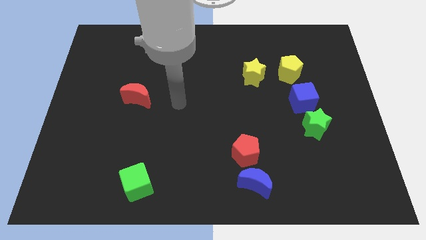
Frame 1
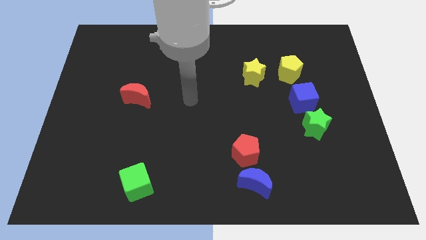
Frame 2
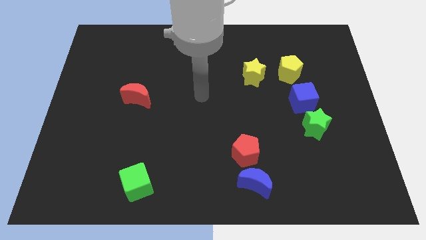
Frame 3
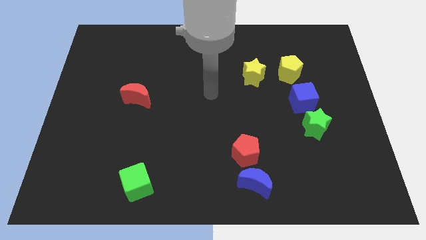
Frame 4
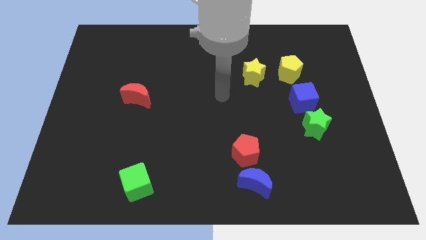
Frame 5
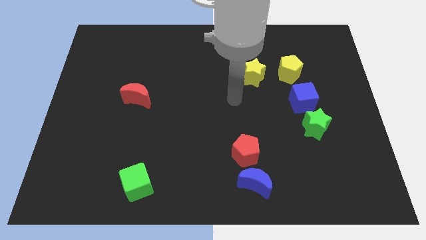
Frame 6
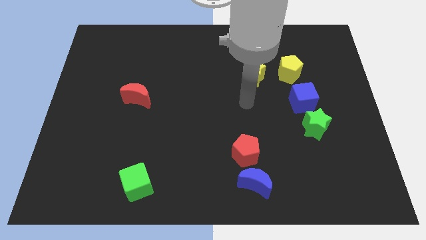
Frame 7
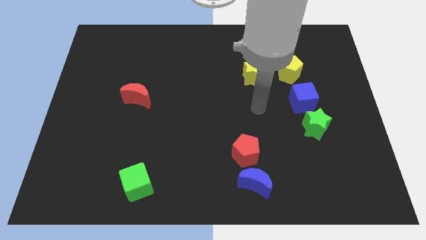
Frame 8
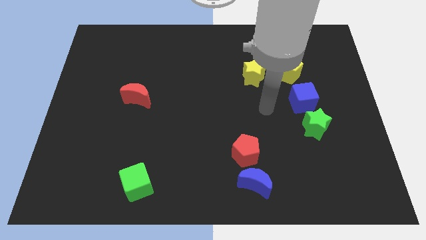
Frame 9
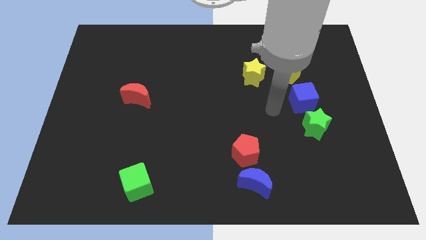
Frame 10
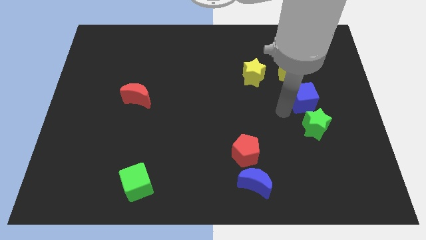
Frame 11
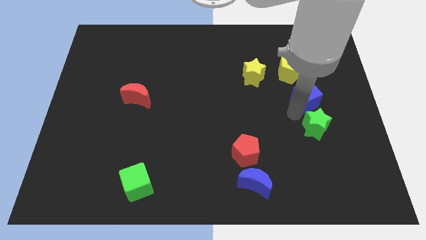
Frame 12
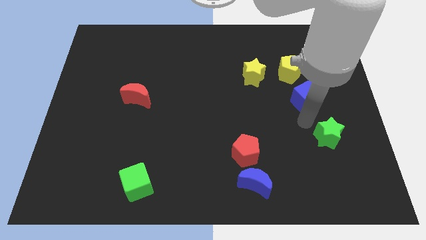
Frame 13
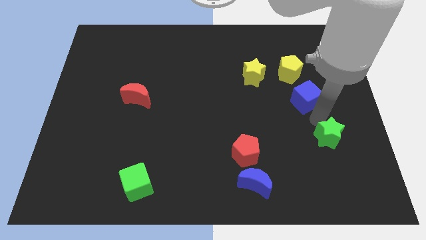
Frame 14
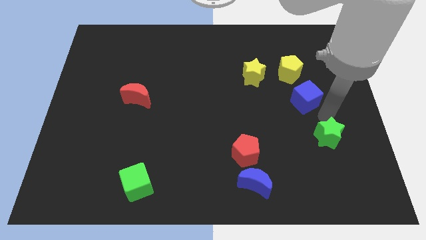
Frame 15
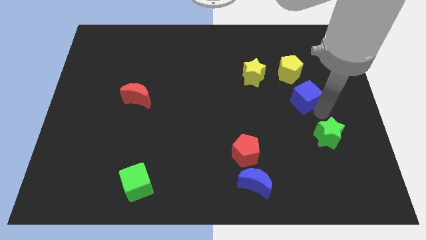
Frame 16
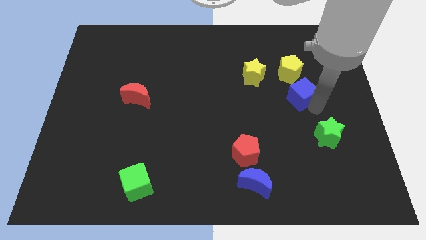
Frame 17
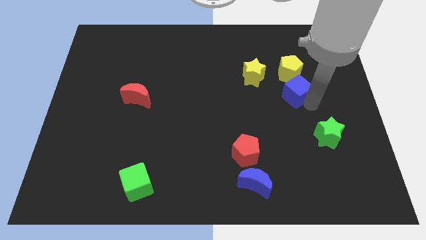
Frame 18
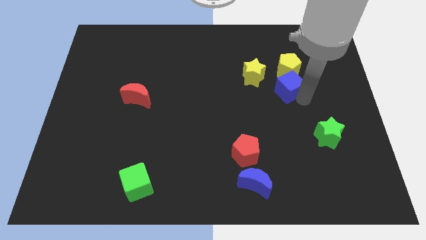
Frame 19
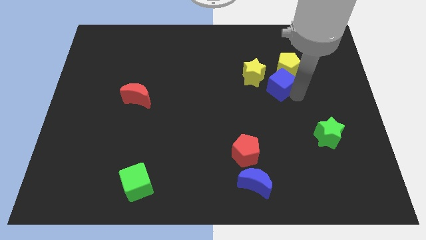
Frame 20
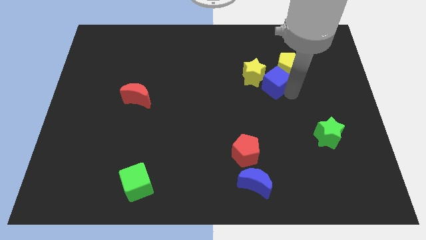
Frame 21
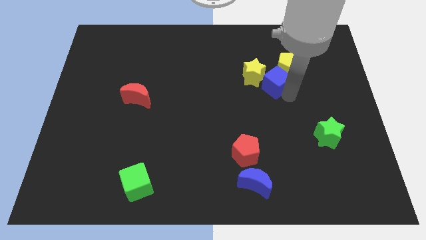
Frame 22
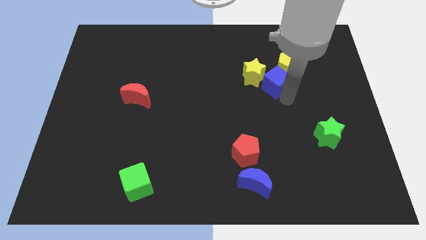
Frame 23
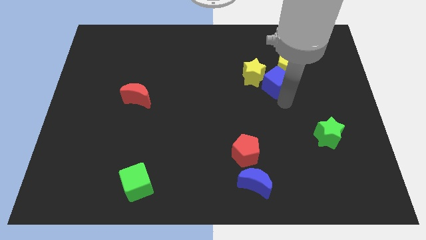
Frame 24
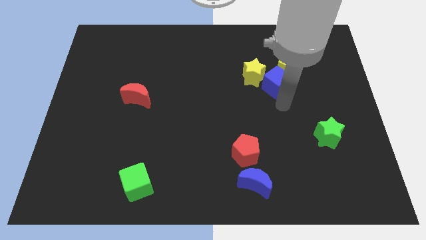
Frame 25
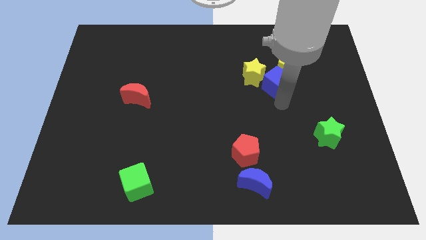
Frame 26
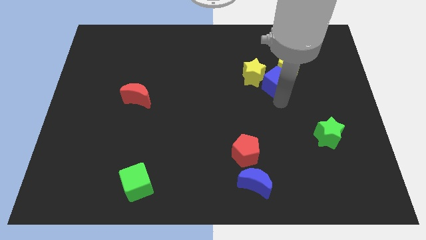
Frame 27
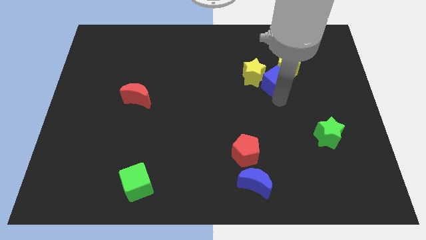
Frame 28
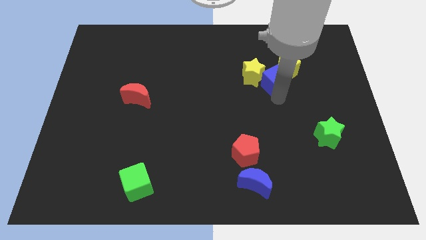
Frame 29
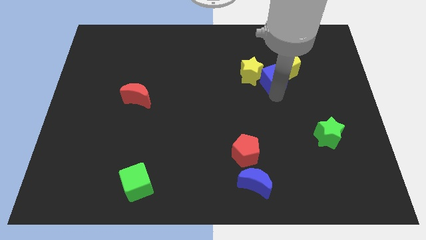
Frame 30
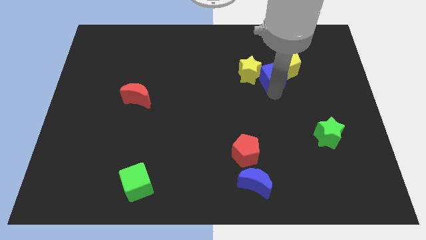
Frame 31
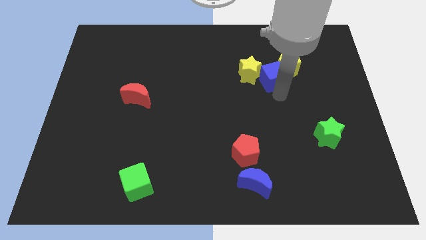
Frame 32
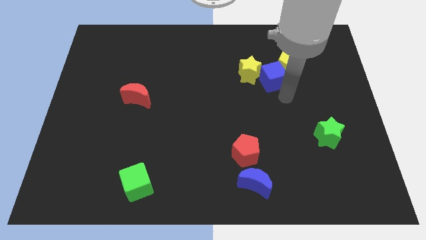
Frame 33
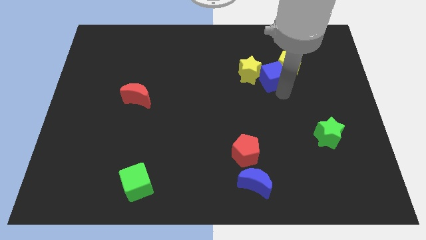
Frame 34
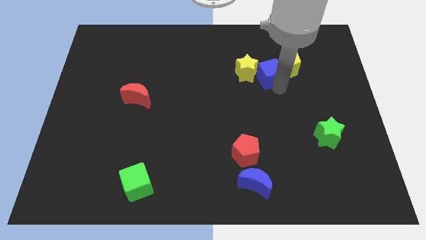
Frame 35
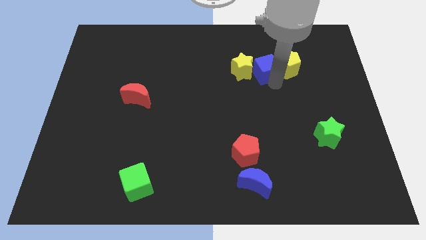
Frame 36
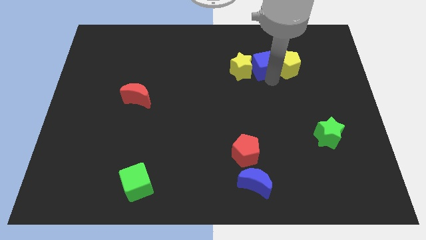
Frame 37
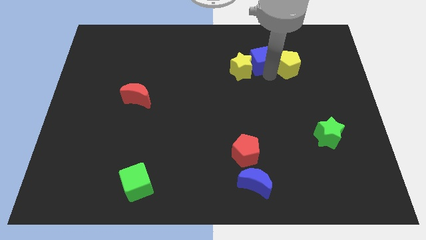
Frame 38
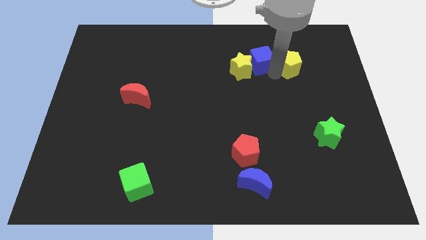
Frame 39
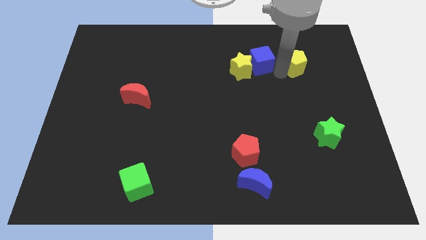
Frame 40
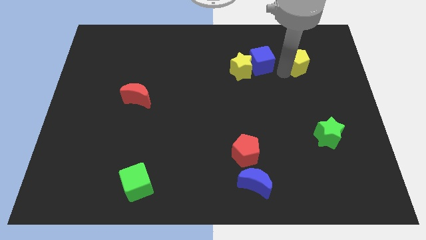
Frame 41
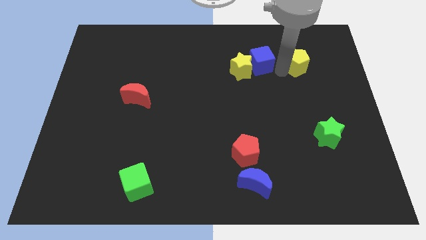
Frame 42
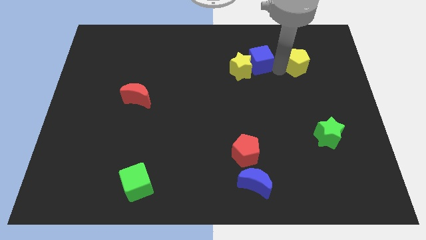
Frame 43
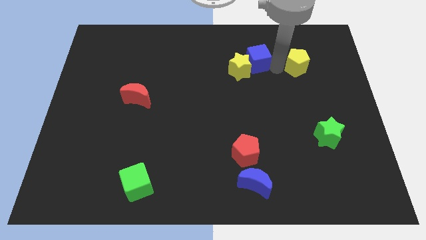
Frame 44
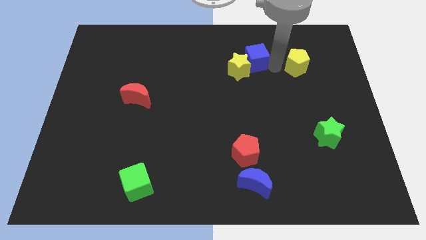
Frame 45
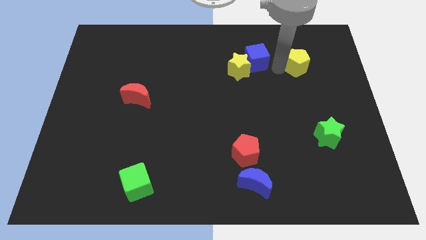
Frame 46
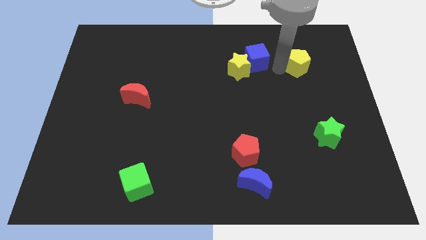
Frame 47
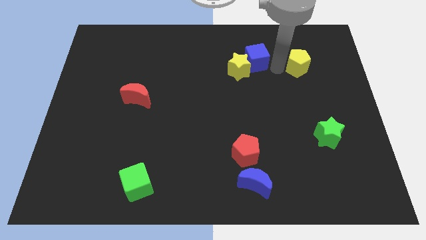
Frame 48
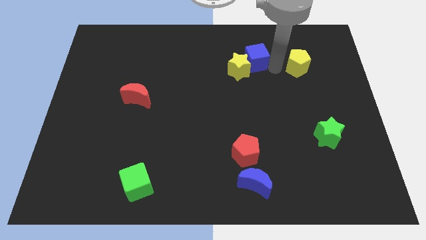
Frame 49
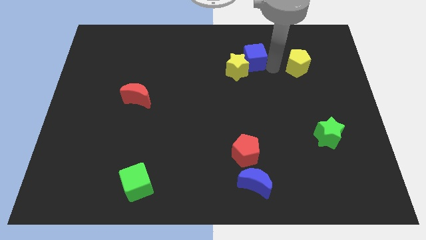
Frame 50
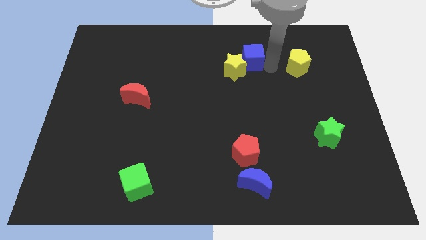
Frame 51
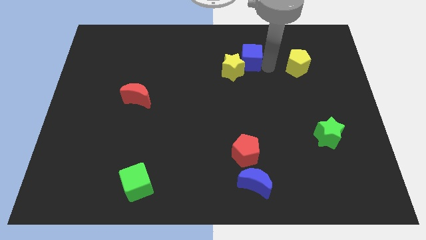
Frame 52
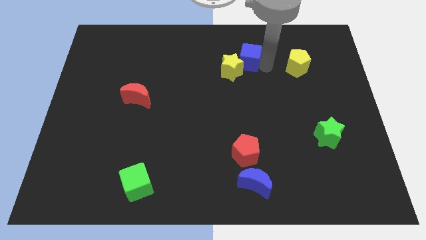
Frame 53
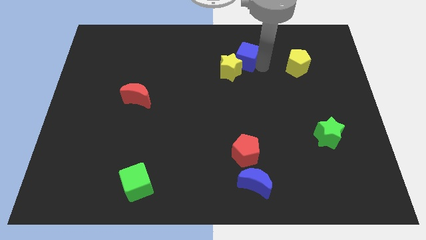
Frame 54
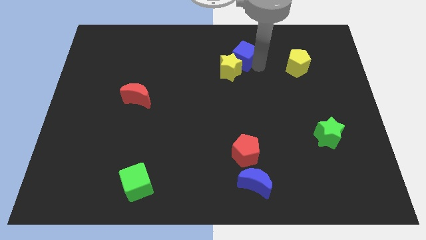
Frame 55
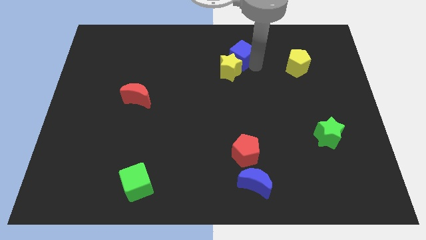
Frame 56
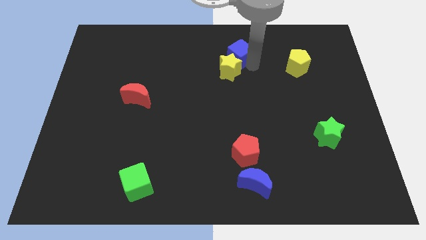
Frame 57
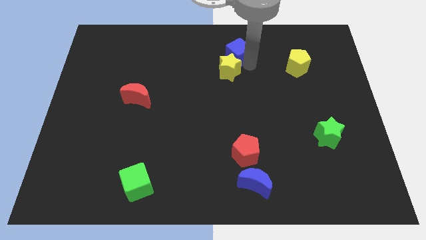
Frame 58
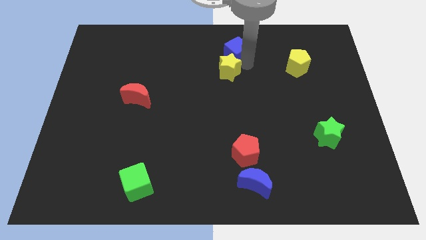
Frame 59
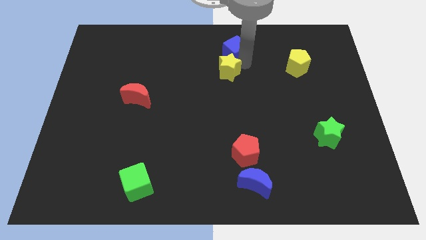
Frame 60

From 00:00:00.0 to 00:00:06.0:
put the blue cube to the top side

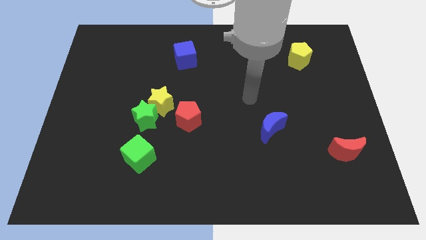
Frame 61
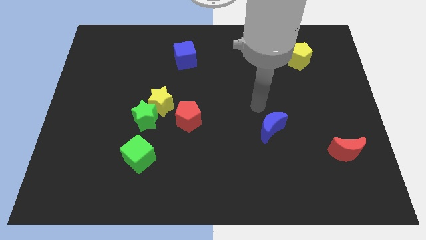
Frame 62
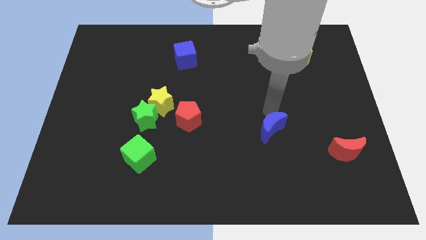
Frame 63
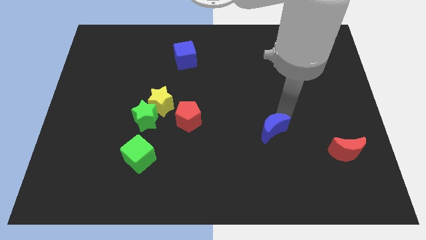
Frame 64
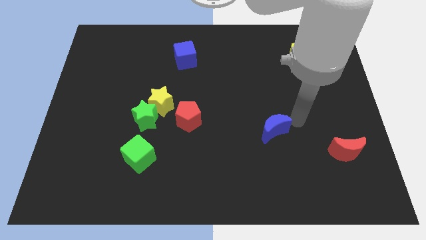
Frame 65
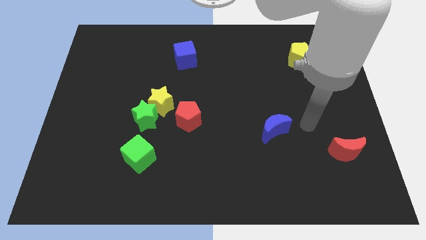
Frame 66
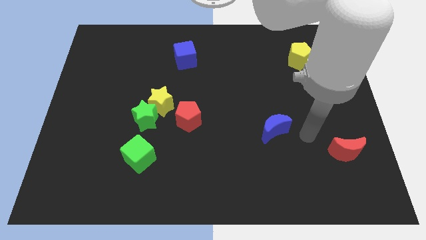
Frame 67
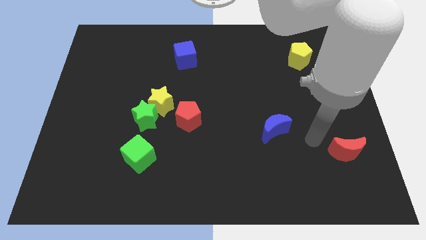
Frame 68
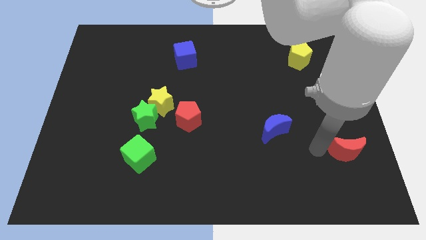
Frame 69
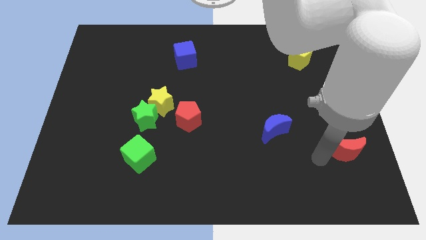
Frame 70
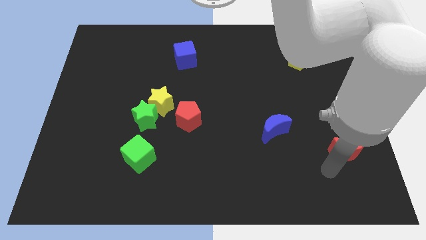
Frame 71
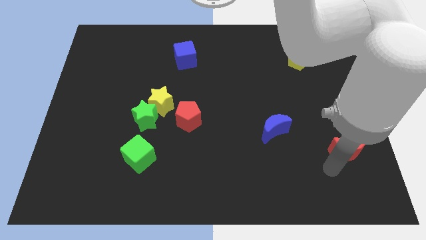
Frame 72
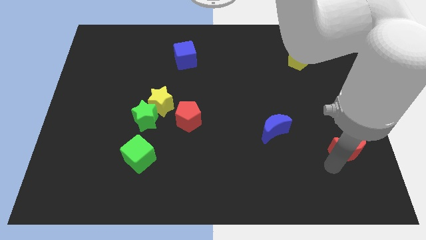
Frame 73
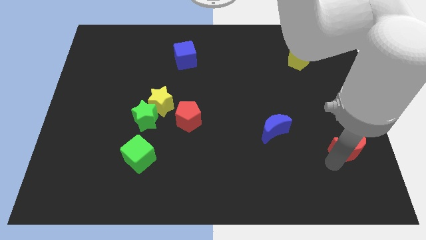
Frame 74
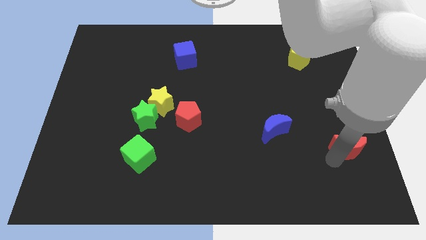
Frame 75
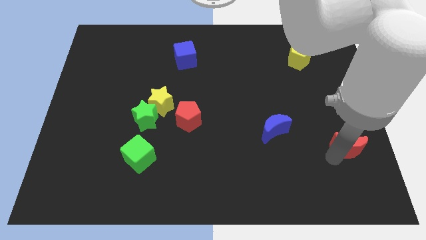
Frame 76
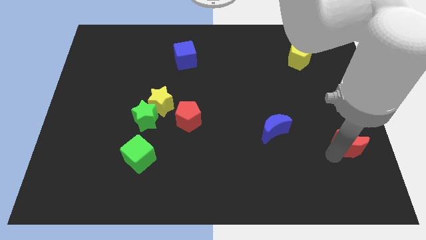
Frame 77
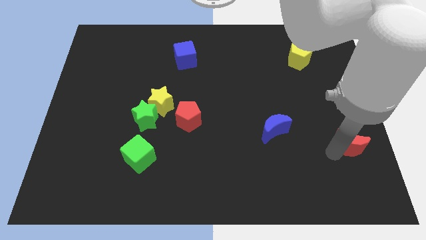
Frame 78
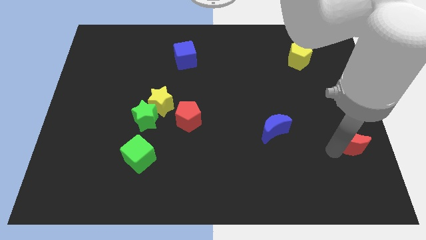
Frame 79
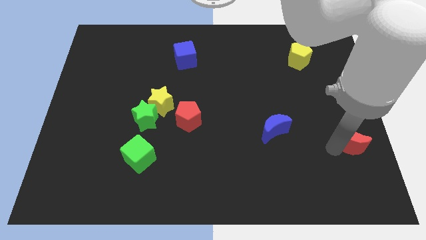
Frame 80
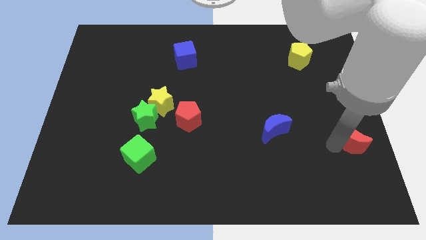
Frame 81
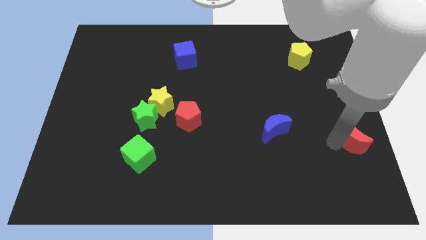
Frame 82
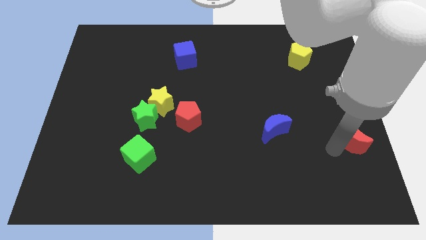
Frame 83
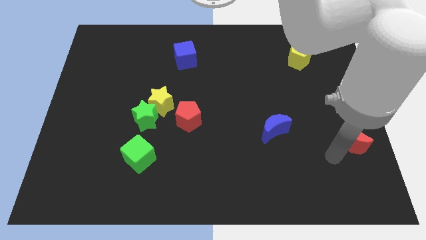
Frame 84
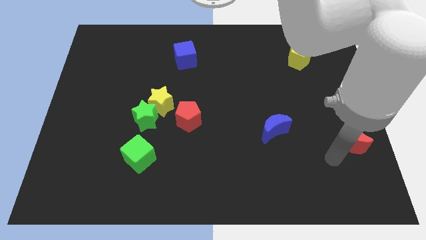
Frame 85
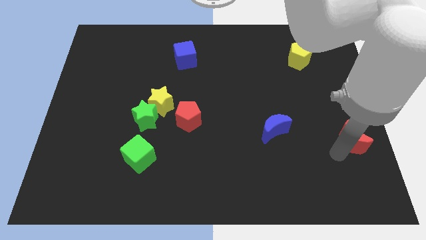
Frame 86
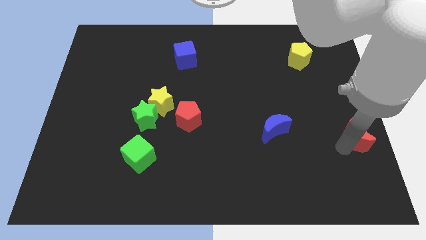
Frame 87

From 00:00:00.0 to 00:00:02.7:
move the red moon to the right side
